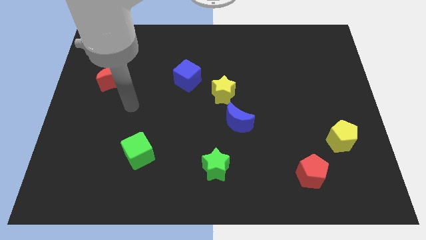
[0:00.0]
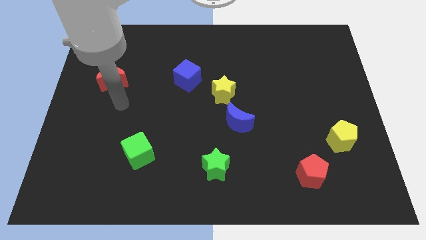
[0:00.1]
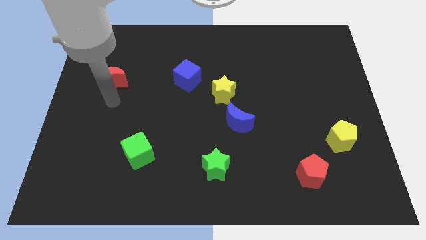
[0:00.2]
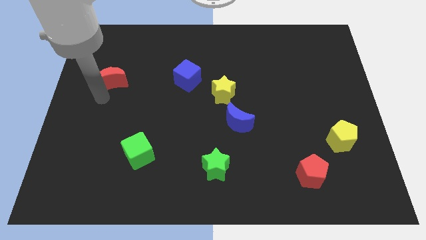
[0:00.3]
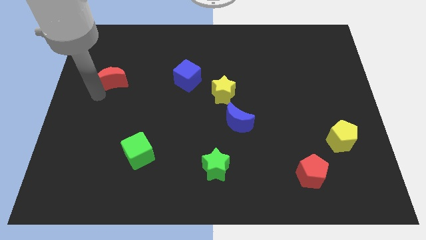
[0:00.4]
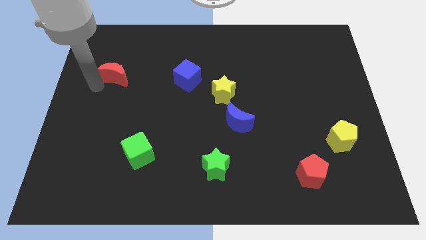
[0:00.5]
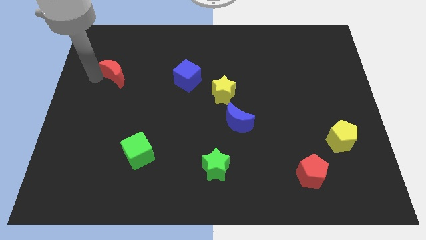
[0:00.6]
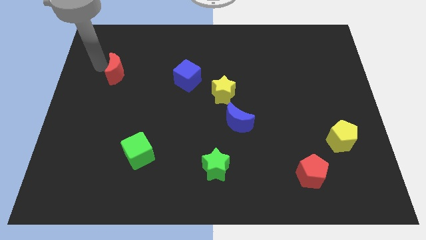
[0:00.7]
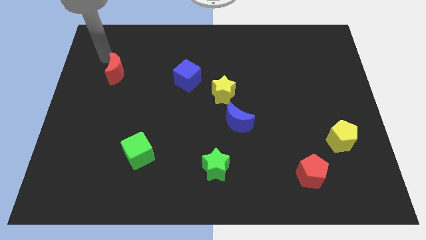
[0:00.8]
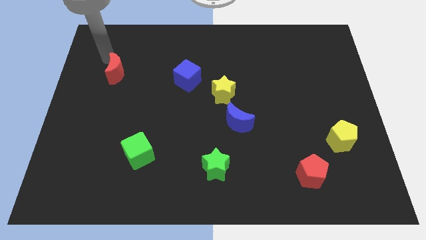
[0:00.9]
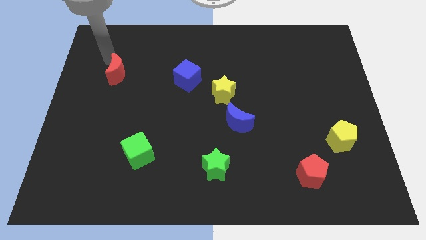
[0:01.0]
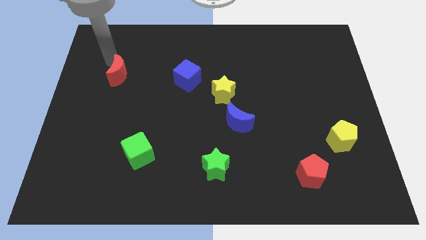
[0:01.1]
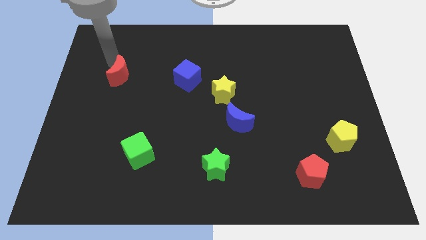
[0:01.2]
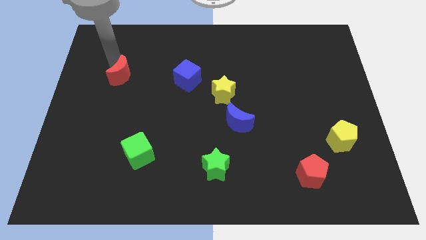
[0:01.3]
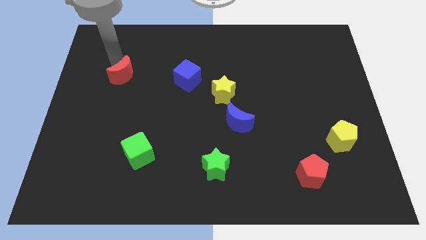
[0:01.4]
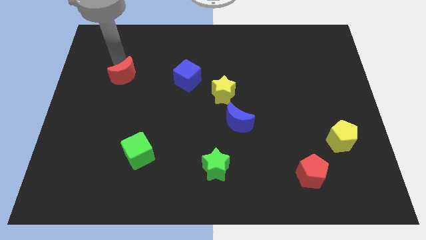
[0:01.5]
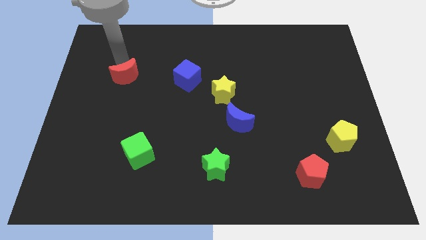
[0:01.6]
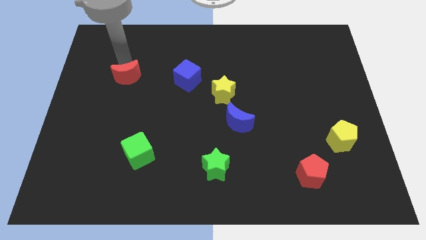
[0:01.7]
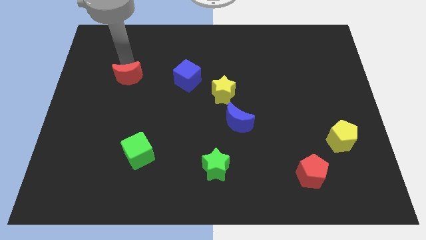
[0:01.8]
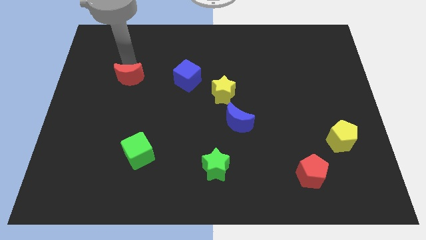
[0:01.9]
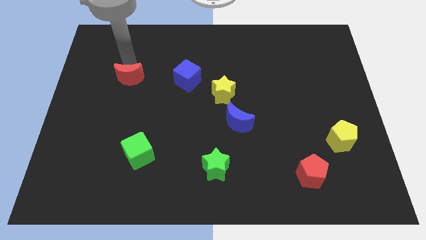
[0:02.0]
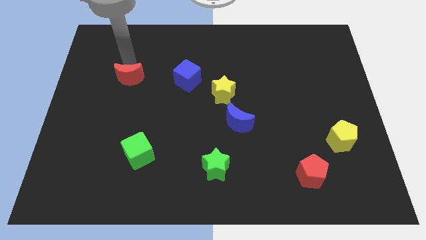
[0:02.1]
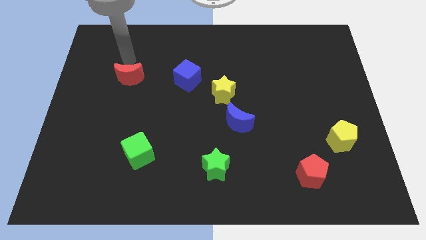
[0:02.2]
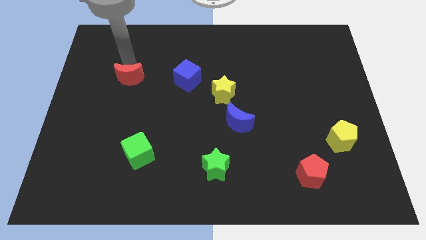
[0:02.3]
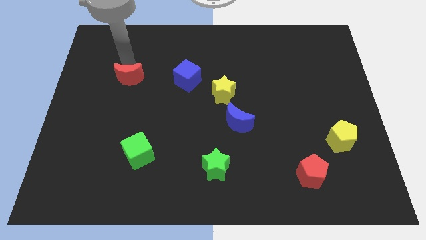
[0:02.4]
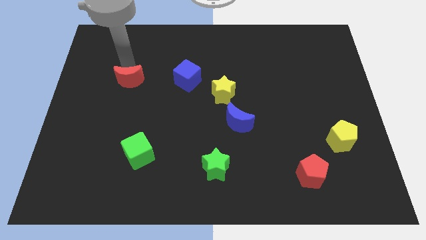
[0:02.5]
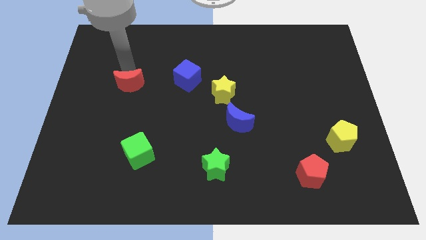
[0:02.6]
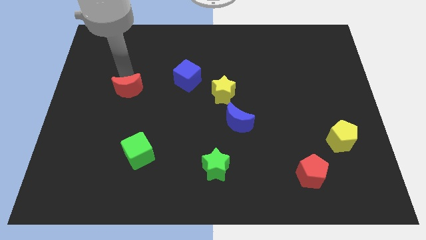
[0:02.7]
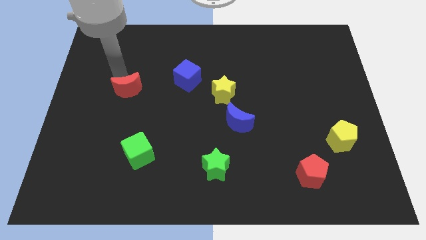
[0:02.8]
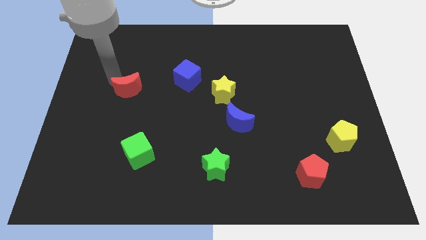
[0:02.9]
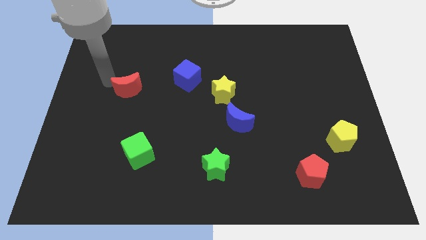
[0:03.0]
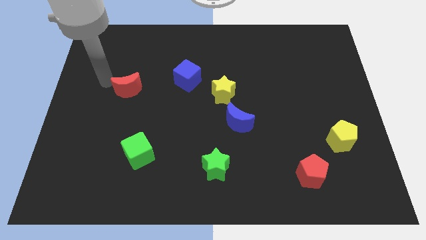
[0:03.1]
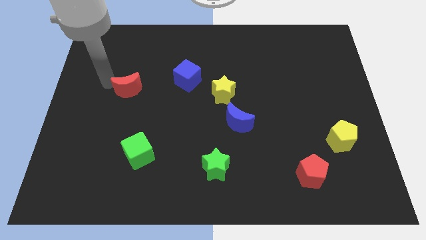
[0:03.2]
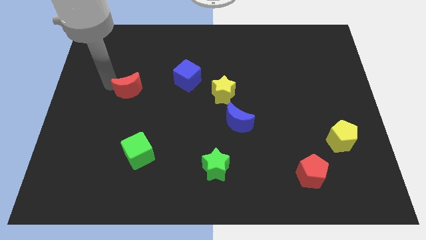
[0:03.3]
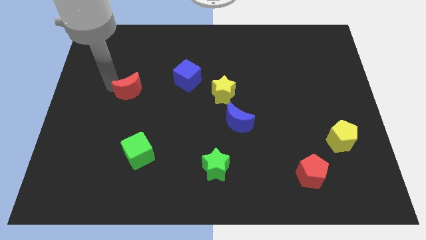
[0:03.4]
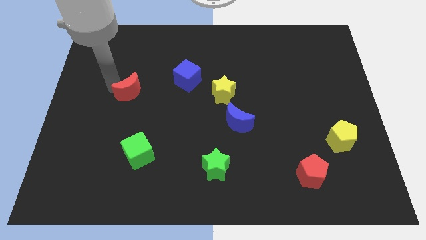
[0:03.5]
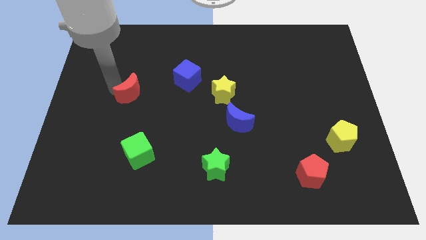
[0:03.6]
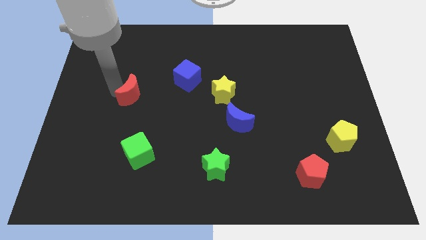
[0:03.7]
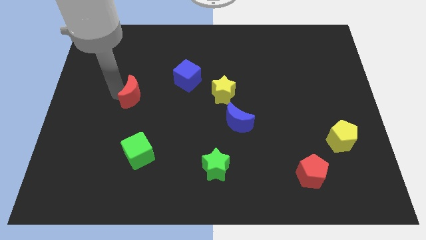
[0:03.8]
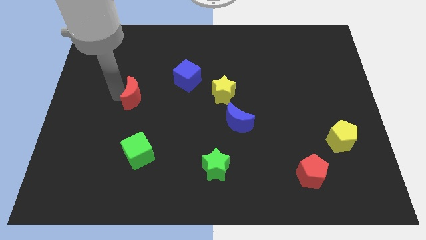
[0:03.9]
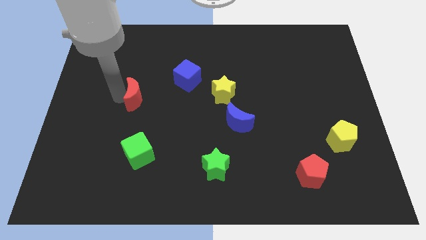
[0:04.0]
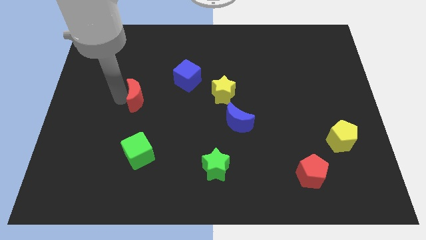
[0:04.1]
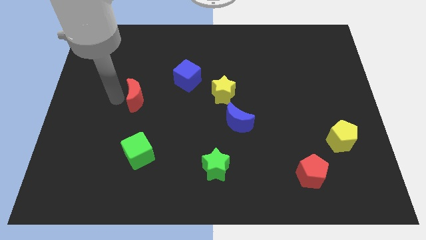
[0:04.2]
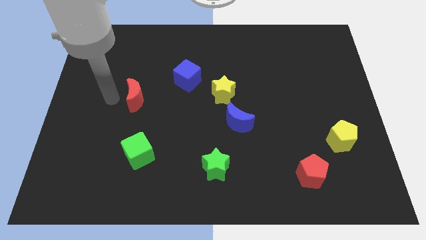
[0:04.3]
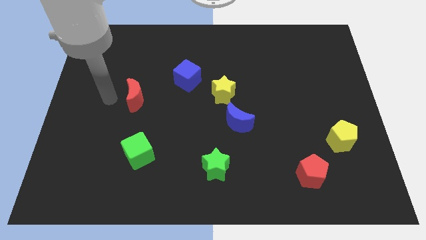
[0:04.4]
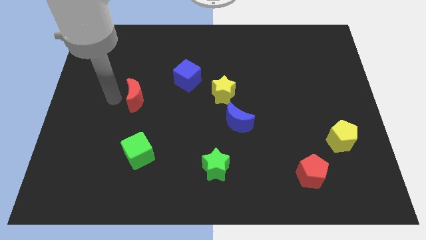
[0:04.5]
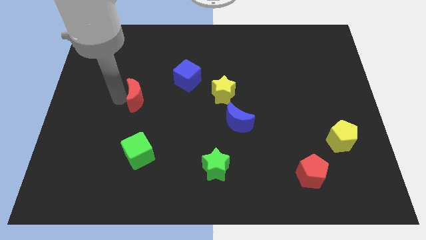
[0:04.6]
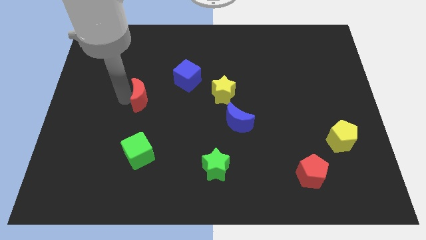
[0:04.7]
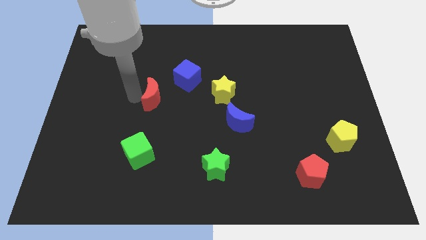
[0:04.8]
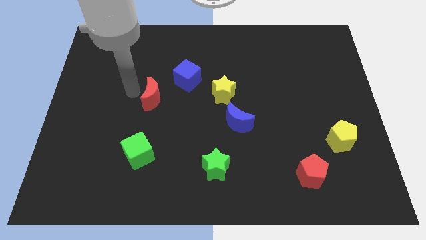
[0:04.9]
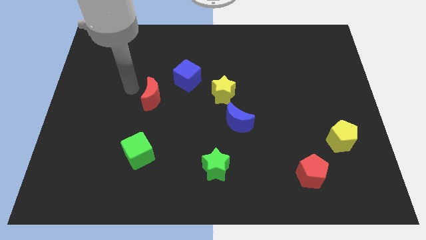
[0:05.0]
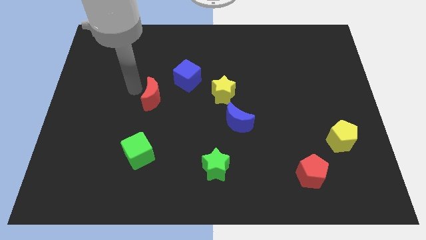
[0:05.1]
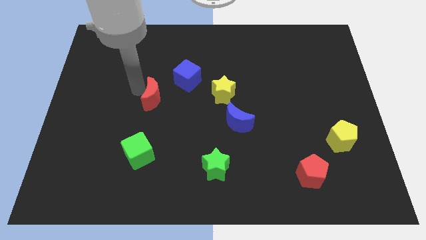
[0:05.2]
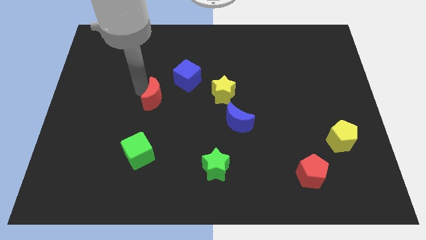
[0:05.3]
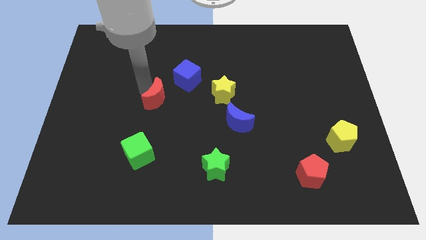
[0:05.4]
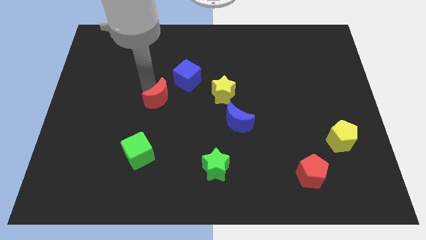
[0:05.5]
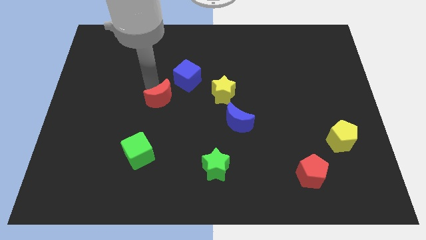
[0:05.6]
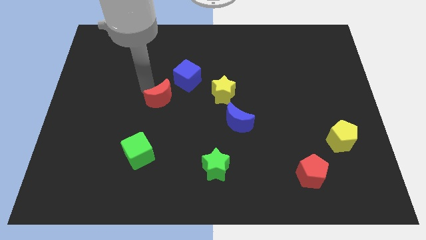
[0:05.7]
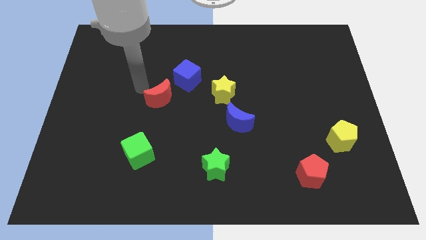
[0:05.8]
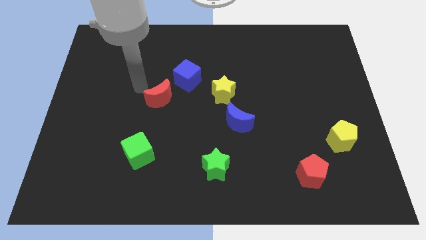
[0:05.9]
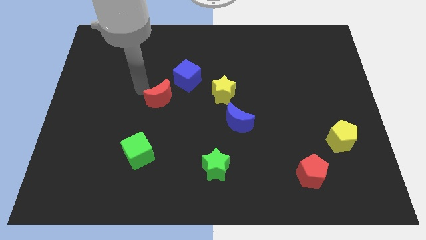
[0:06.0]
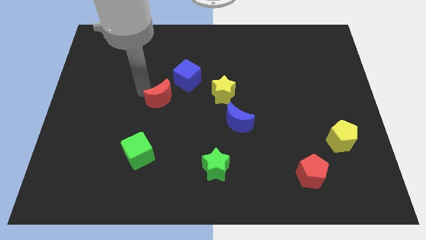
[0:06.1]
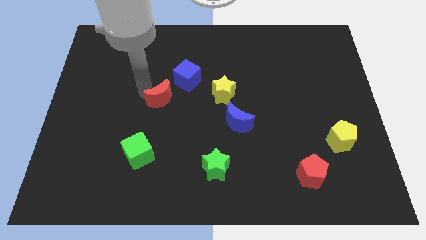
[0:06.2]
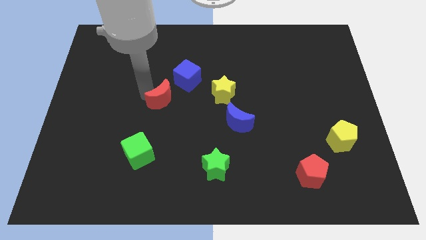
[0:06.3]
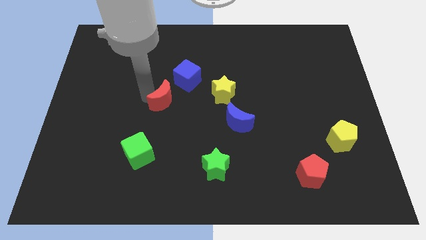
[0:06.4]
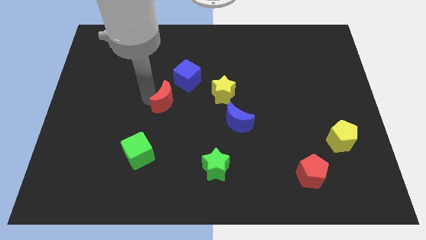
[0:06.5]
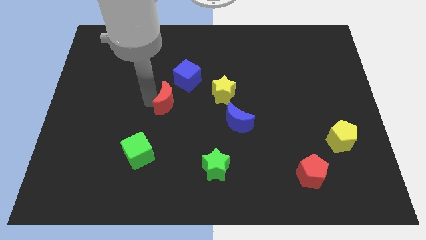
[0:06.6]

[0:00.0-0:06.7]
push the red moon to the bottom of the blue cube

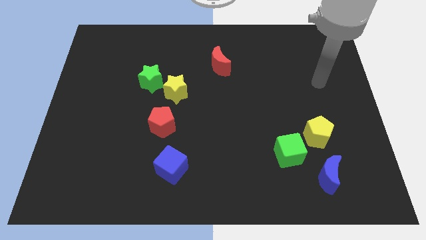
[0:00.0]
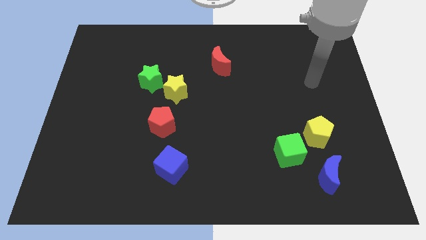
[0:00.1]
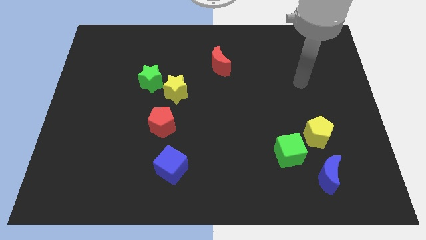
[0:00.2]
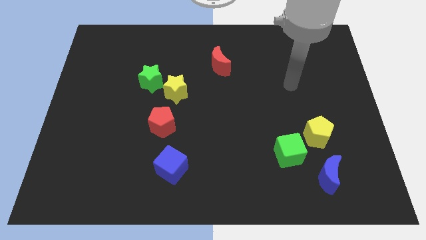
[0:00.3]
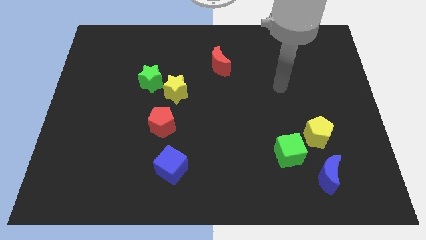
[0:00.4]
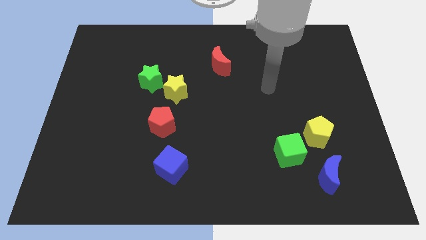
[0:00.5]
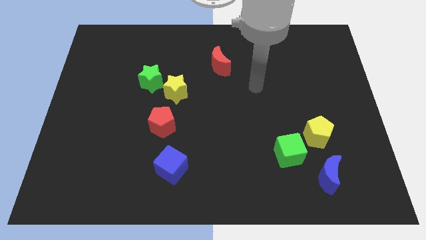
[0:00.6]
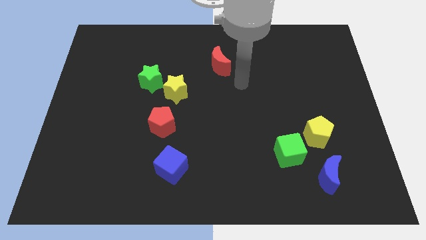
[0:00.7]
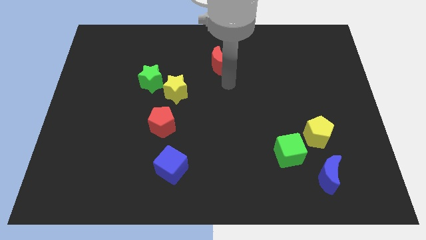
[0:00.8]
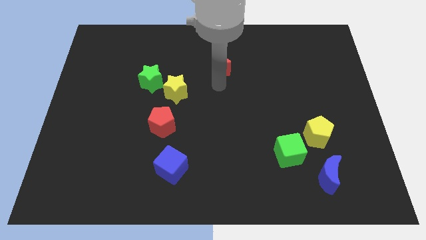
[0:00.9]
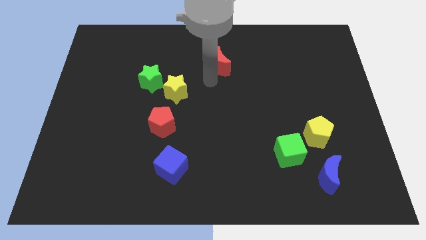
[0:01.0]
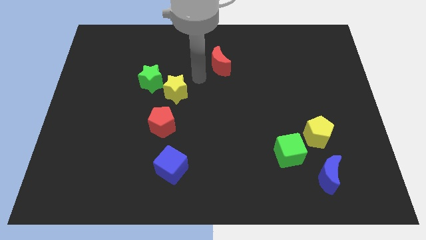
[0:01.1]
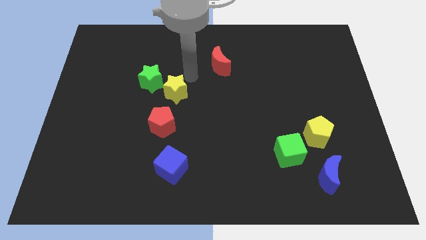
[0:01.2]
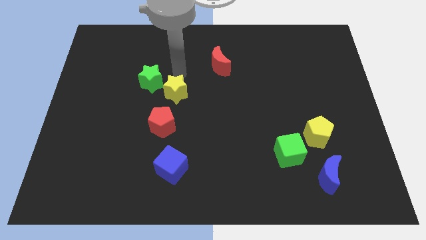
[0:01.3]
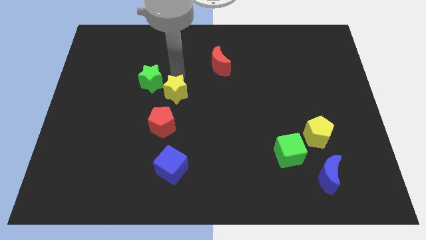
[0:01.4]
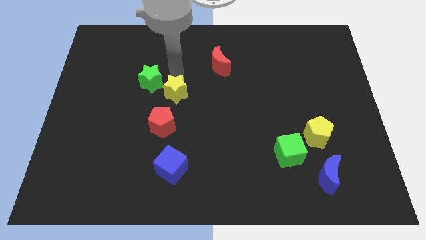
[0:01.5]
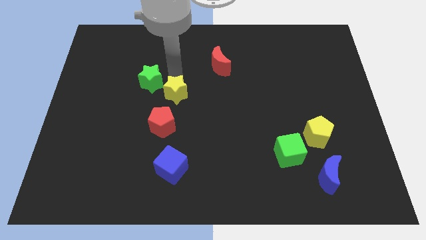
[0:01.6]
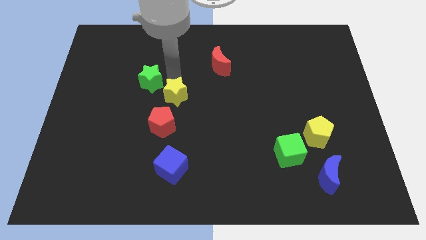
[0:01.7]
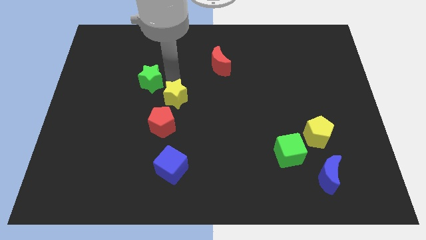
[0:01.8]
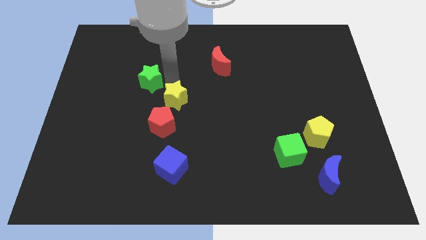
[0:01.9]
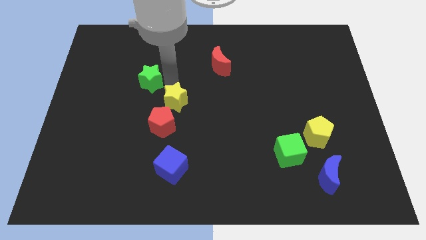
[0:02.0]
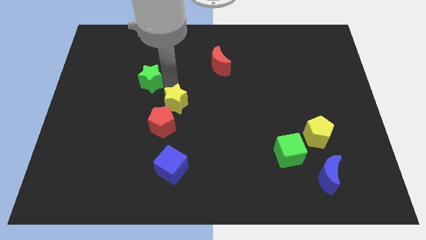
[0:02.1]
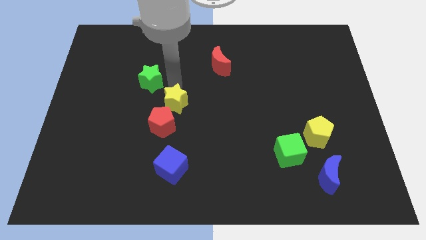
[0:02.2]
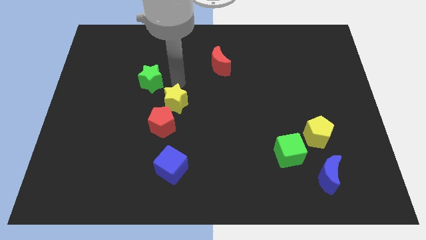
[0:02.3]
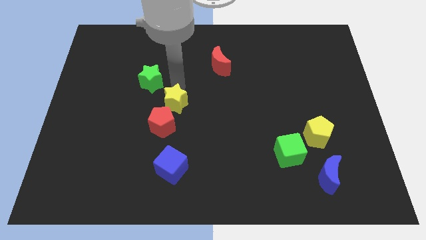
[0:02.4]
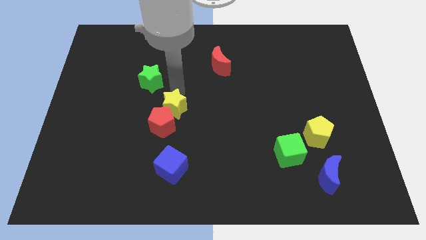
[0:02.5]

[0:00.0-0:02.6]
move the yellow star to the top of the blue cube
